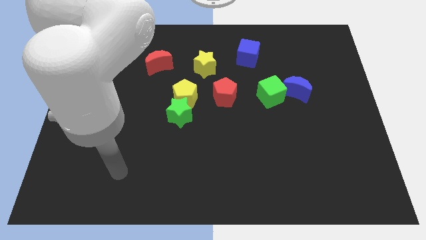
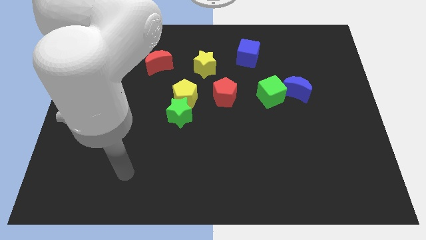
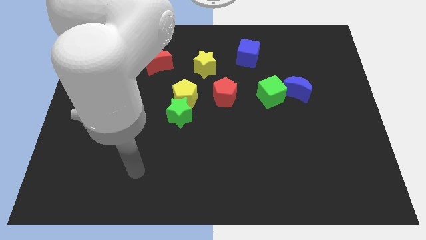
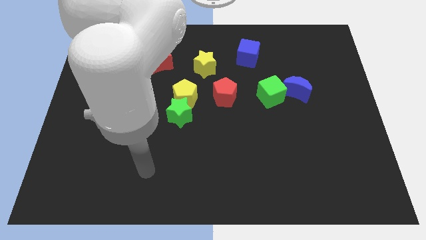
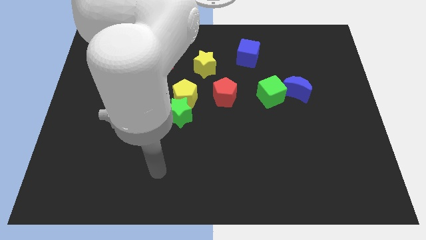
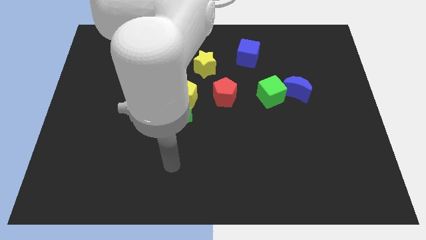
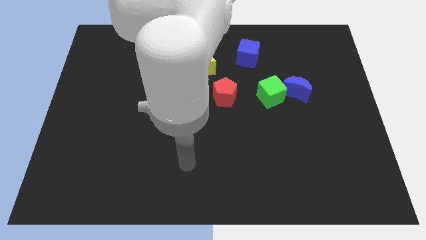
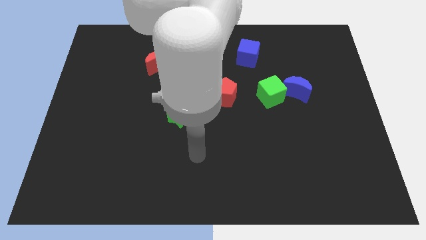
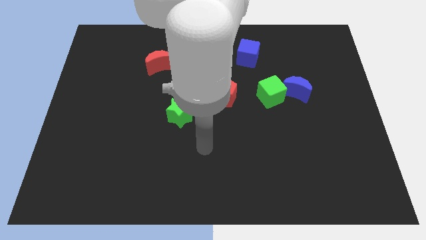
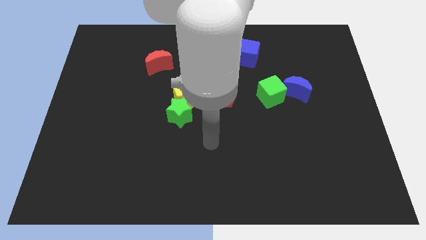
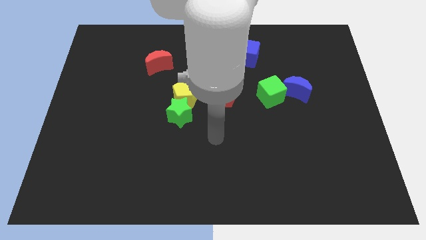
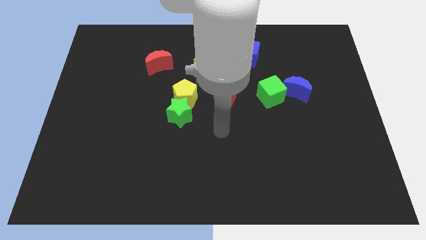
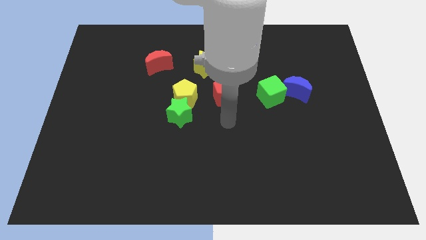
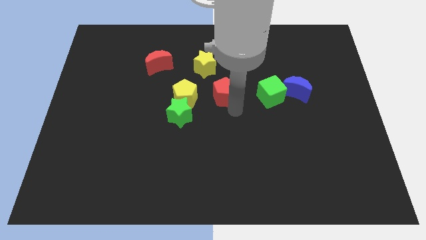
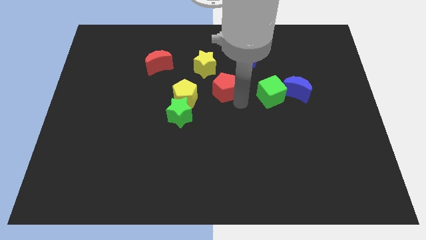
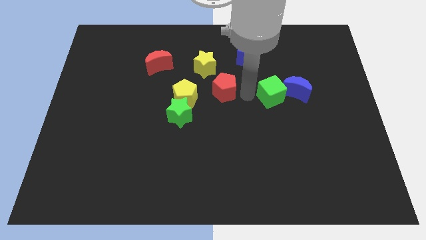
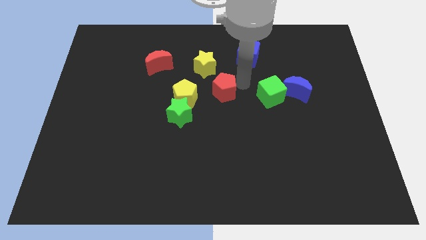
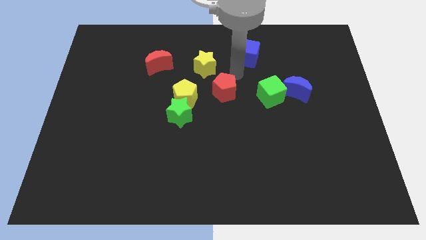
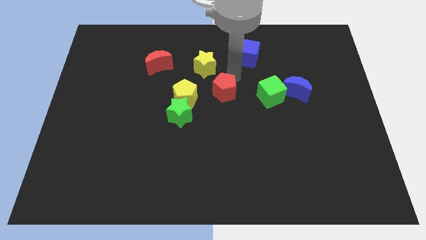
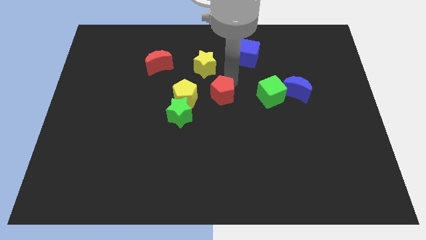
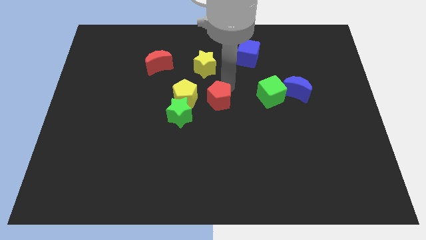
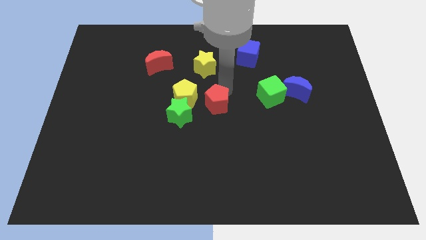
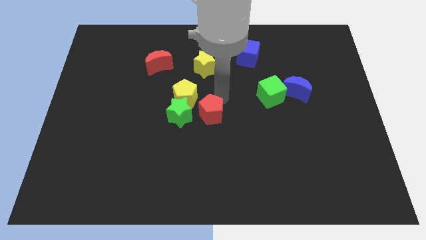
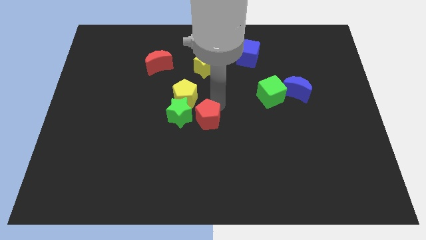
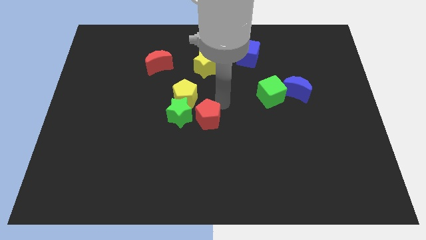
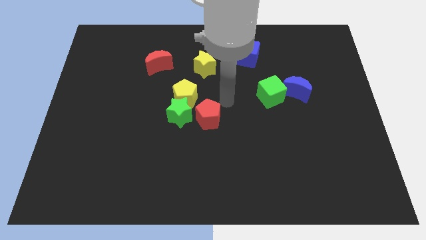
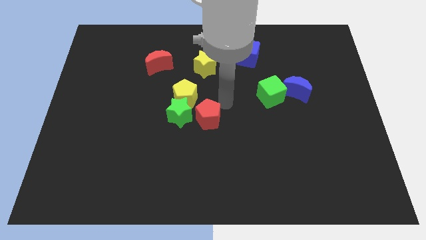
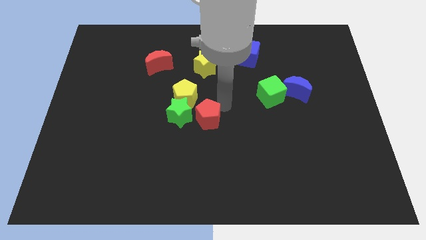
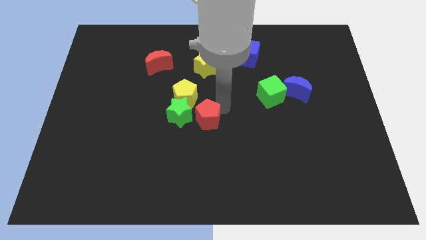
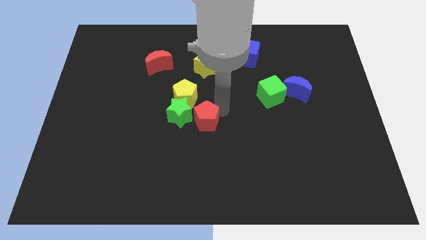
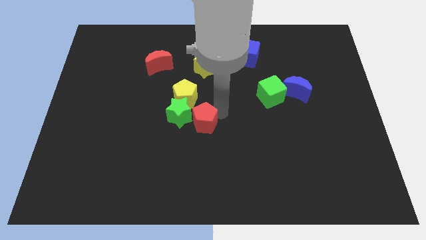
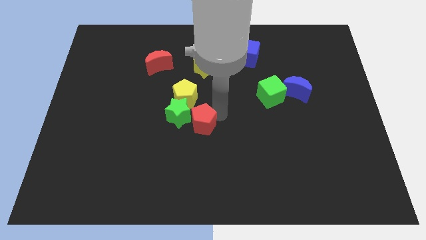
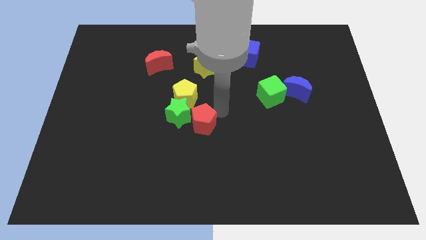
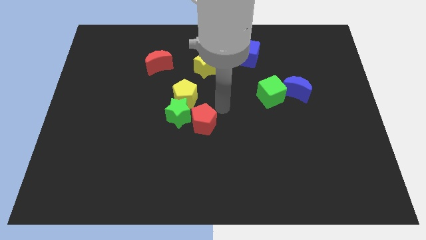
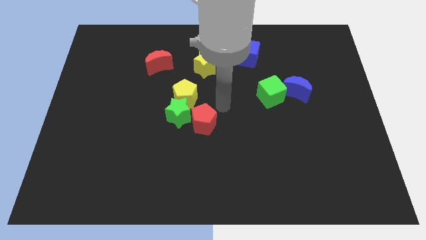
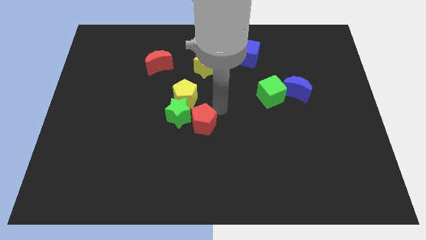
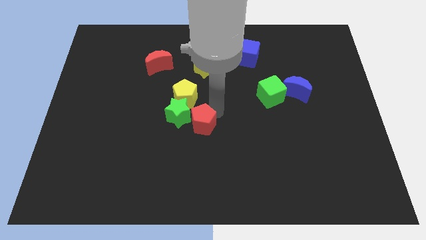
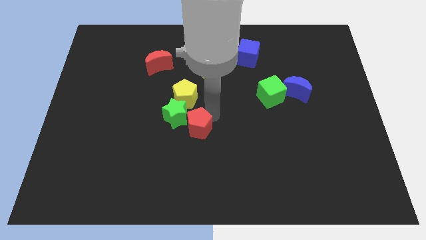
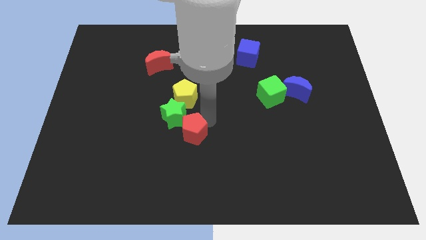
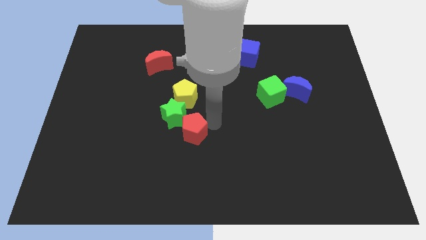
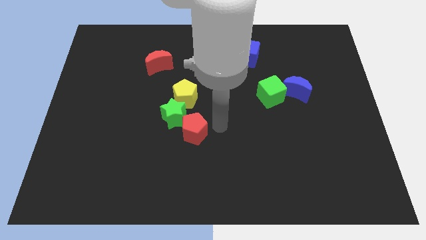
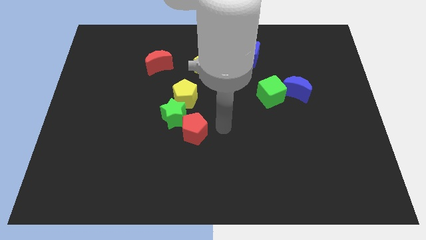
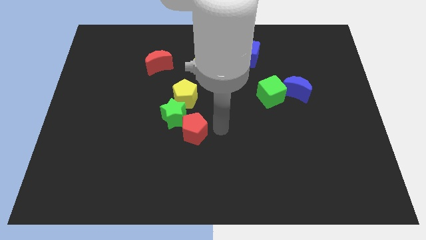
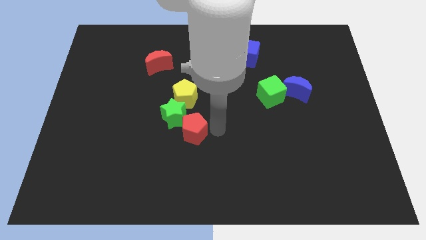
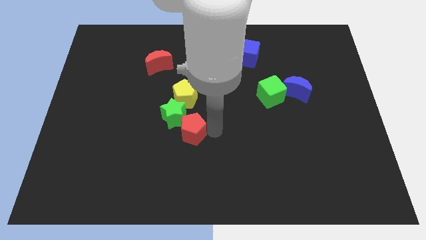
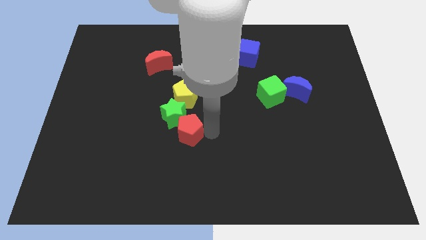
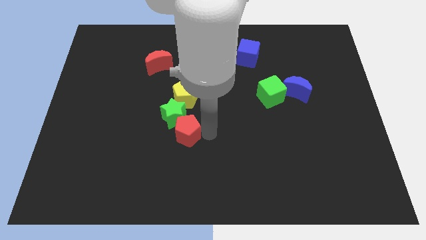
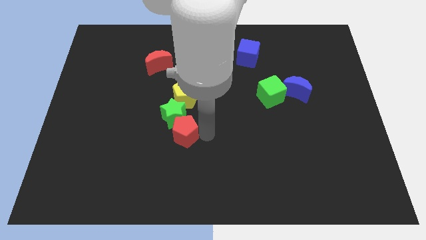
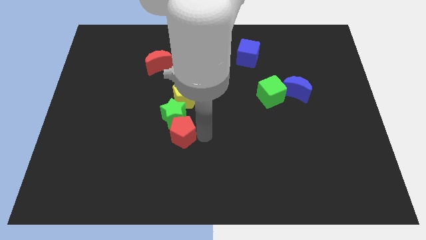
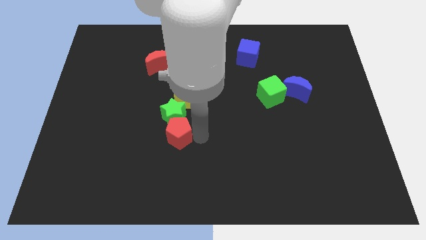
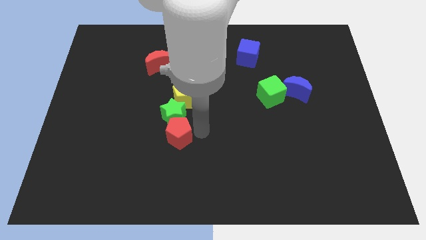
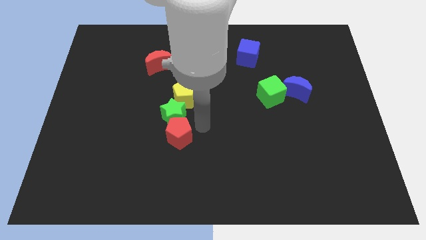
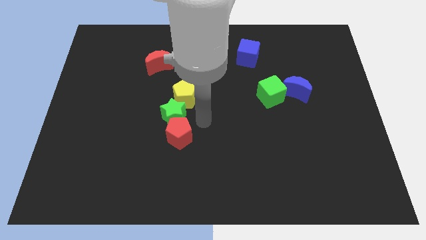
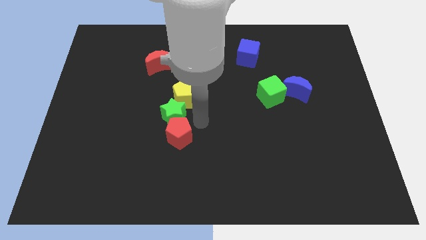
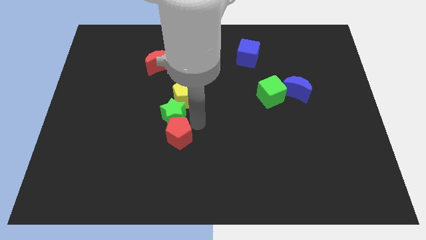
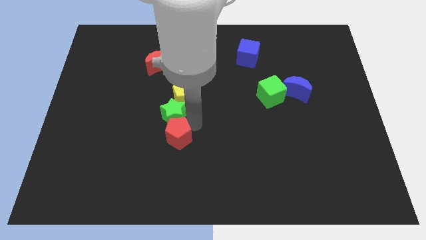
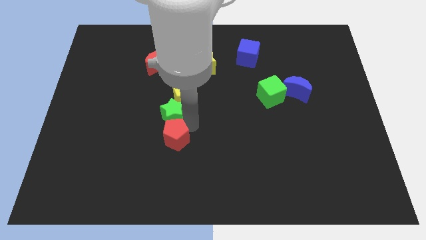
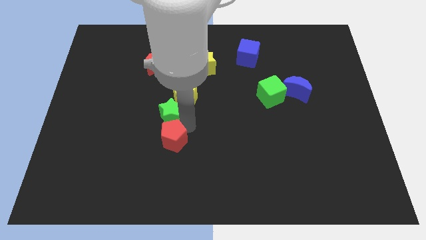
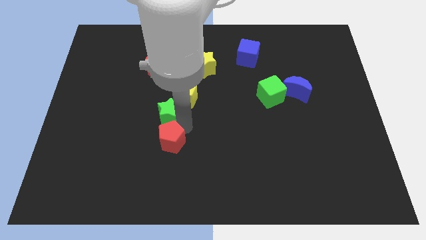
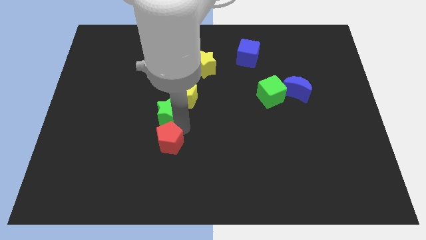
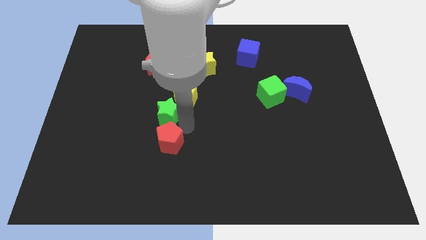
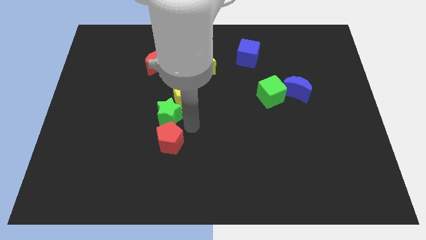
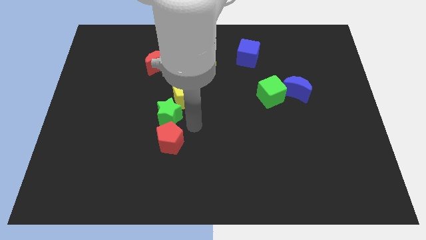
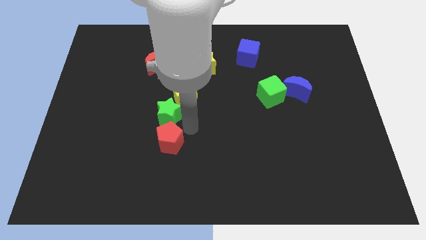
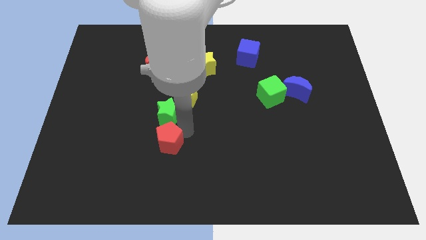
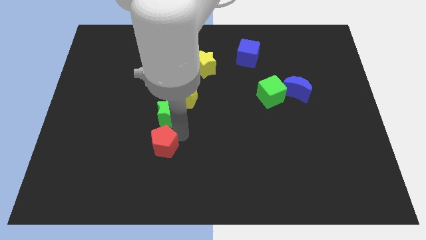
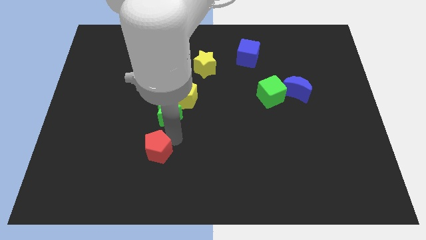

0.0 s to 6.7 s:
push the red pentagon downwards and then left

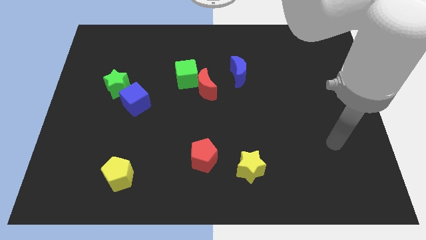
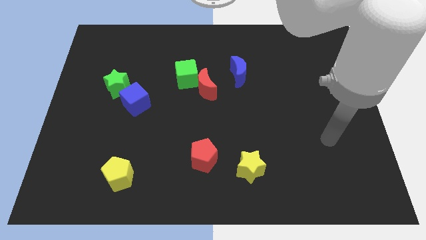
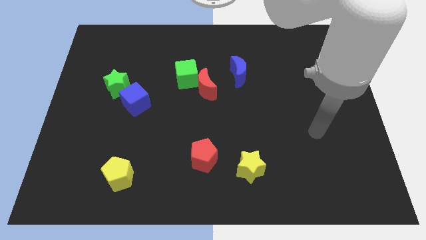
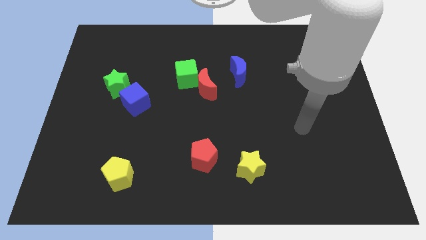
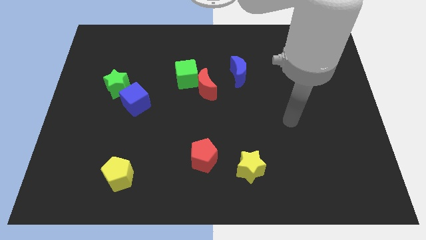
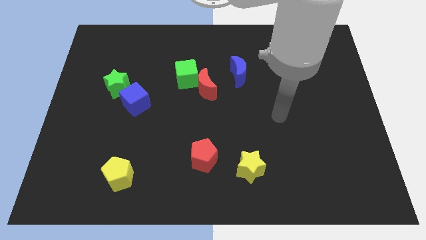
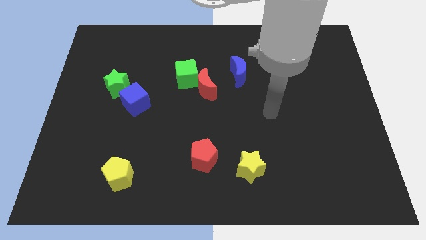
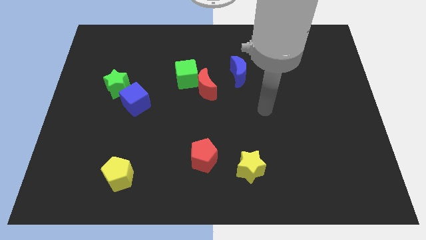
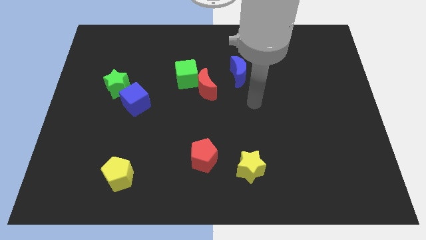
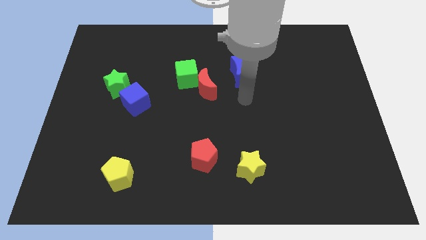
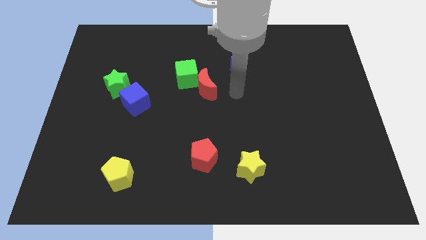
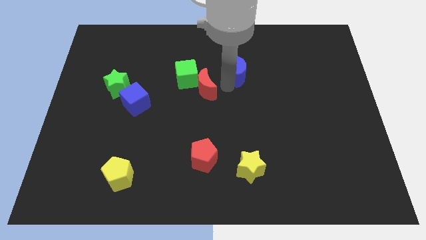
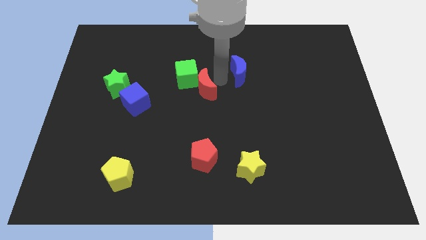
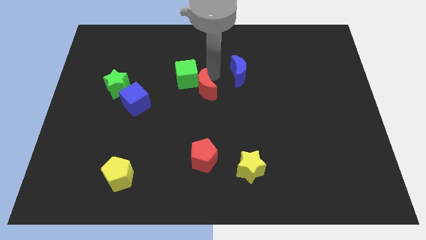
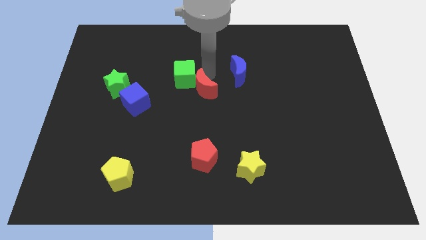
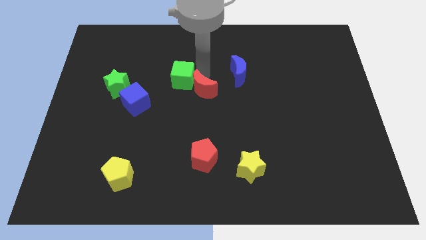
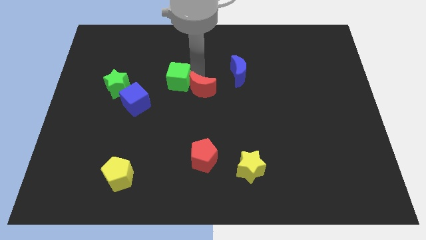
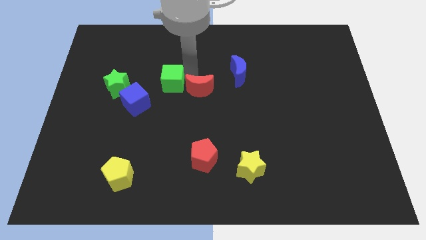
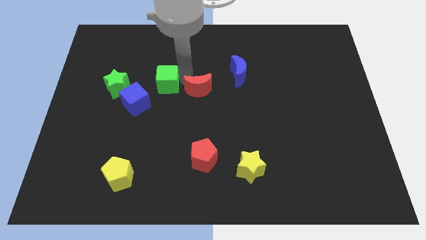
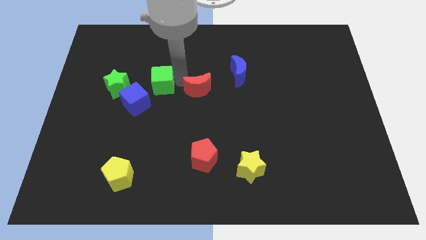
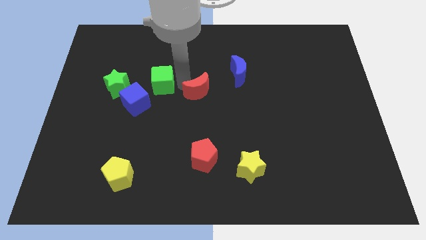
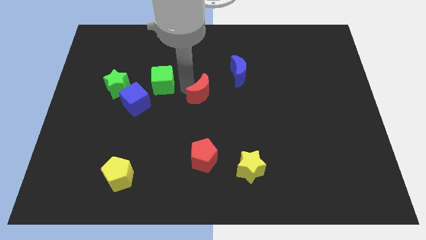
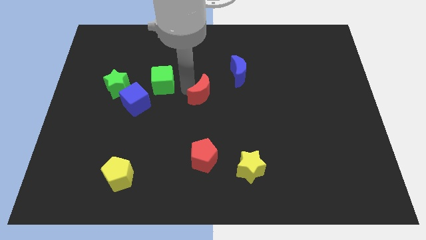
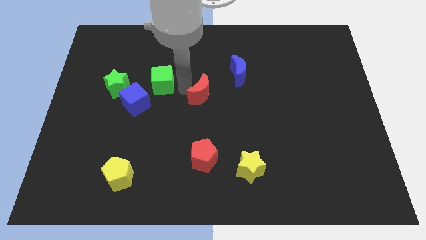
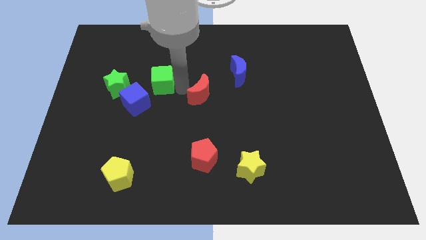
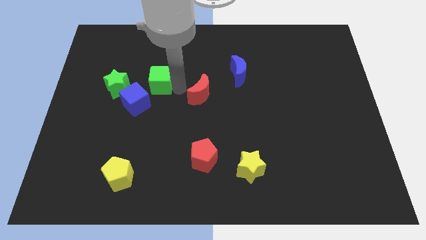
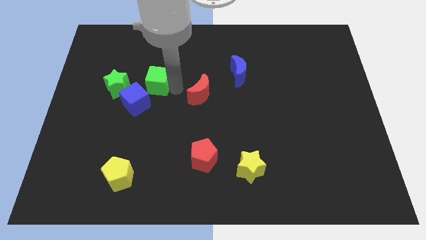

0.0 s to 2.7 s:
slightly slide the green cube left
